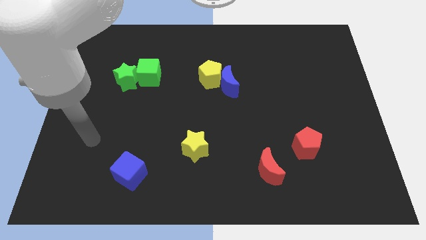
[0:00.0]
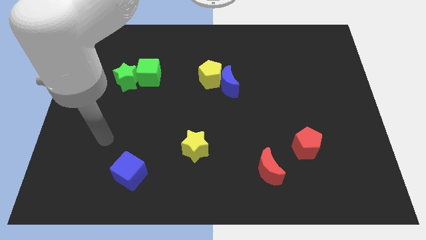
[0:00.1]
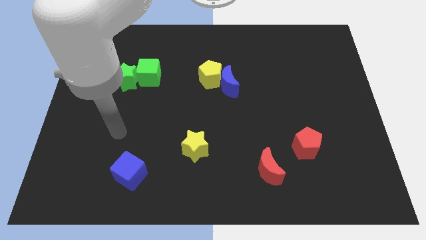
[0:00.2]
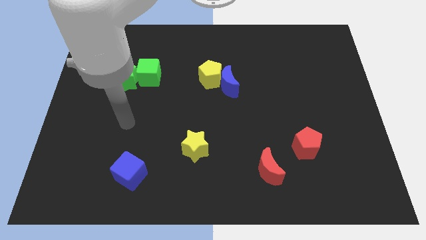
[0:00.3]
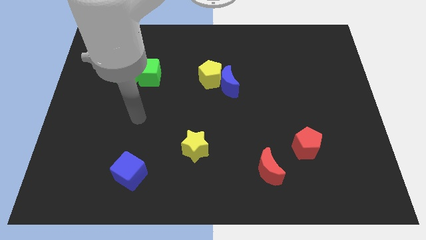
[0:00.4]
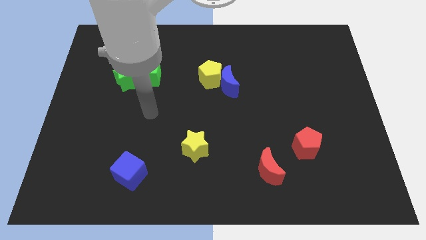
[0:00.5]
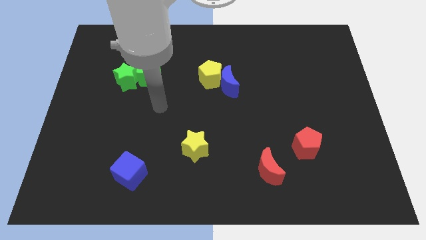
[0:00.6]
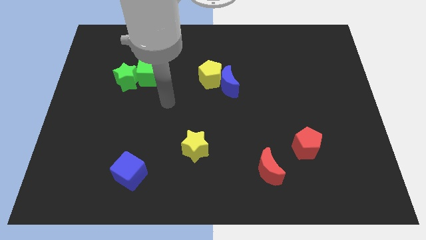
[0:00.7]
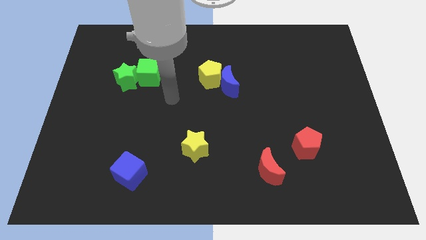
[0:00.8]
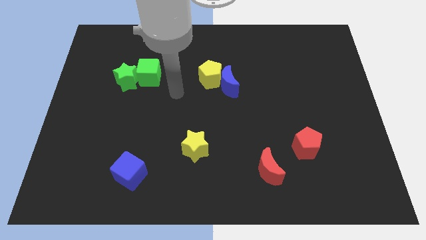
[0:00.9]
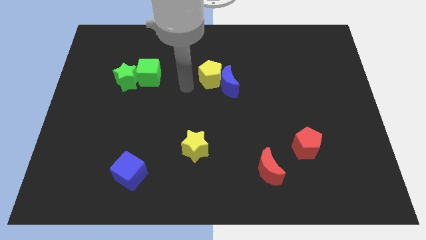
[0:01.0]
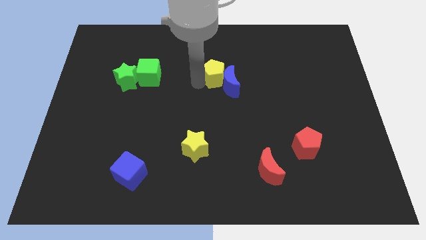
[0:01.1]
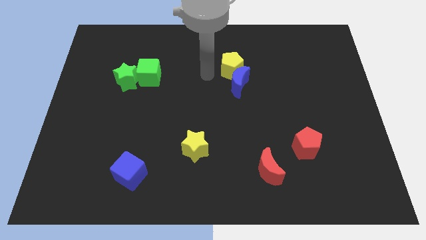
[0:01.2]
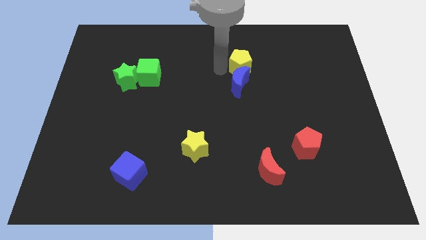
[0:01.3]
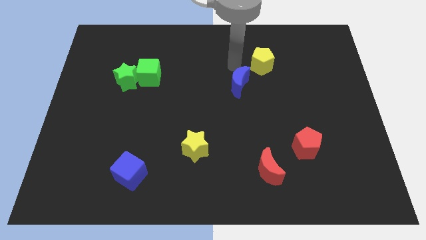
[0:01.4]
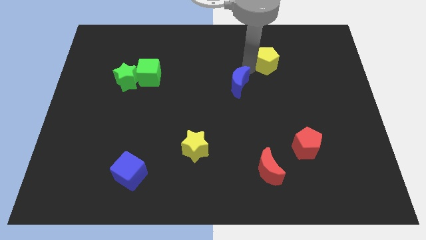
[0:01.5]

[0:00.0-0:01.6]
separate the blue moon from the yellow pentagon

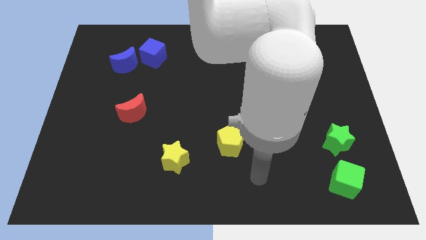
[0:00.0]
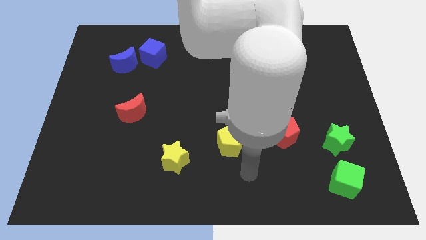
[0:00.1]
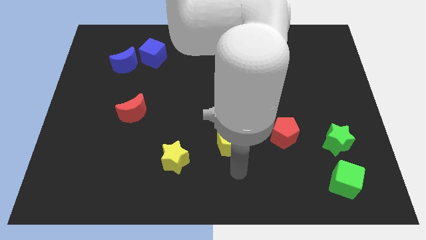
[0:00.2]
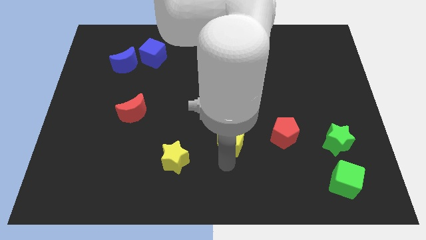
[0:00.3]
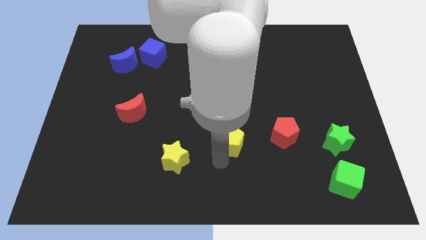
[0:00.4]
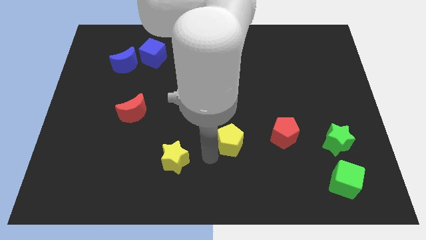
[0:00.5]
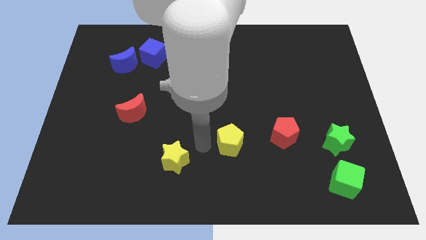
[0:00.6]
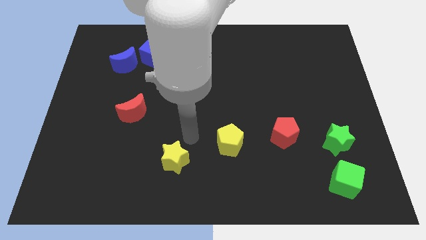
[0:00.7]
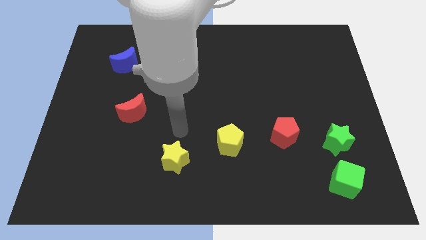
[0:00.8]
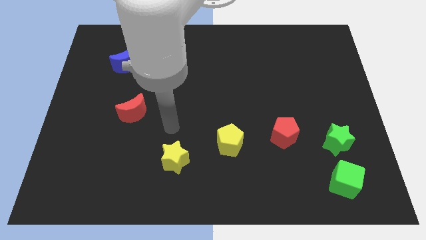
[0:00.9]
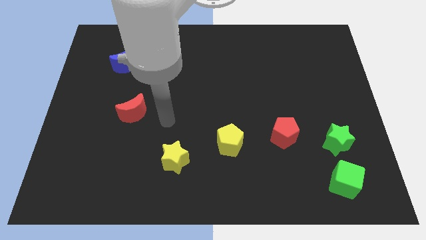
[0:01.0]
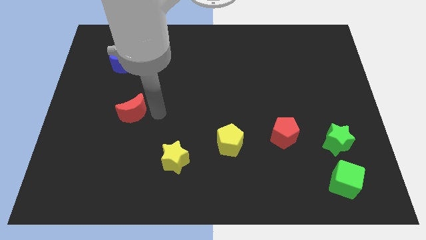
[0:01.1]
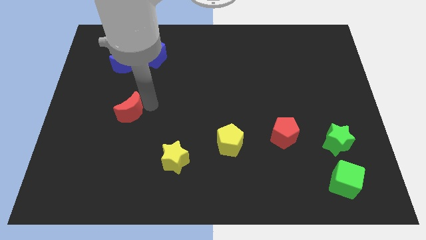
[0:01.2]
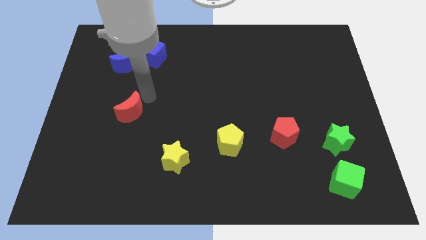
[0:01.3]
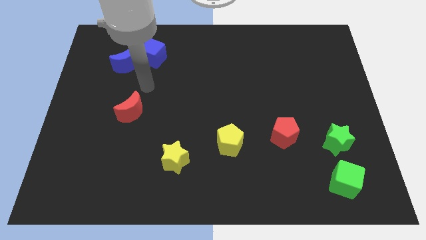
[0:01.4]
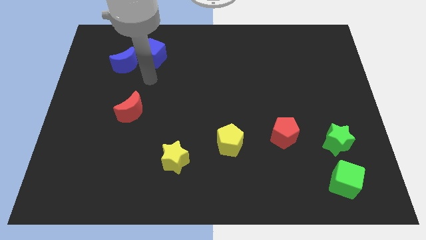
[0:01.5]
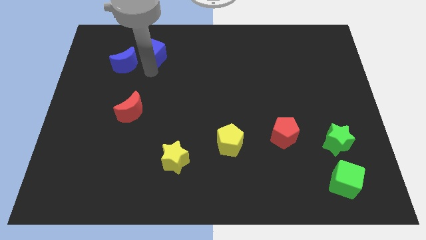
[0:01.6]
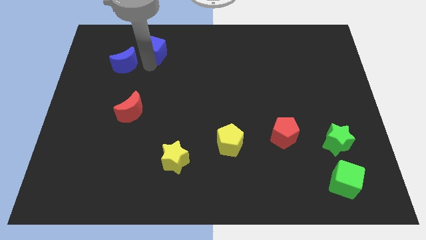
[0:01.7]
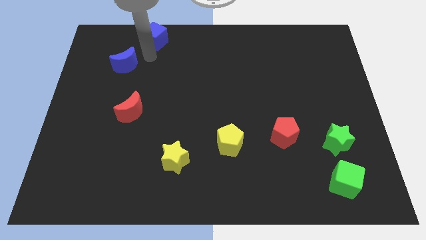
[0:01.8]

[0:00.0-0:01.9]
separate the blue moon from the blue cube

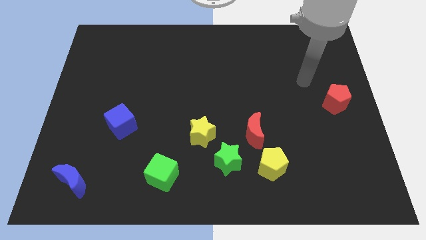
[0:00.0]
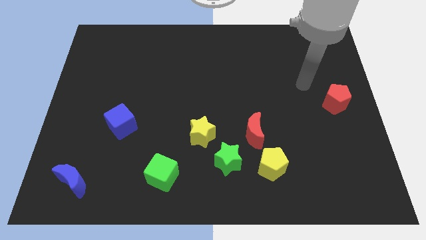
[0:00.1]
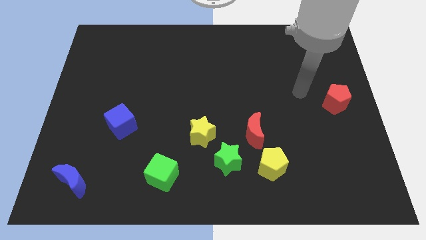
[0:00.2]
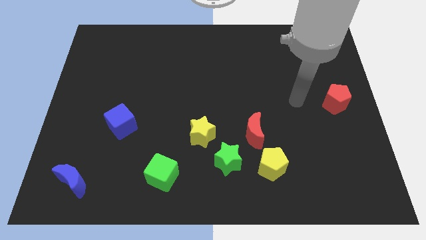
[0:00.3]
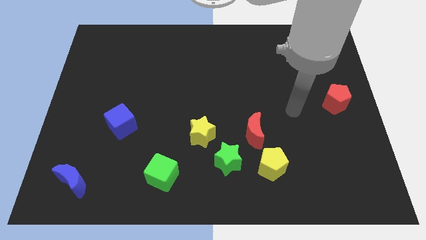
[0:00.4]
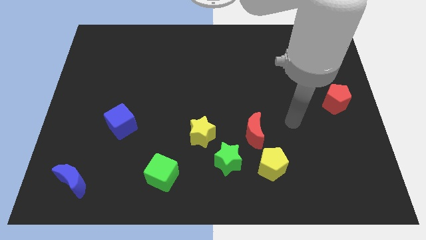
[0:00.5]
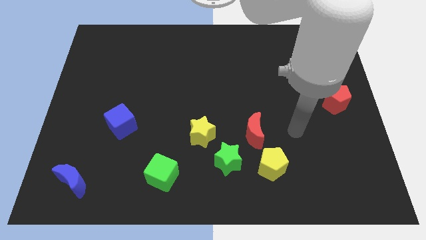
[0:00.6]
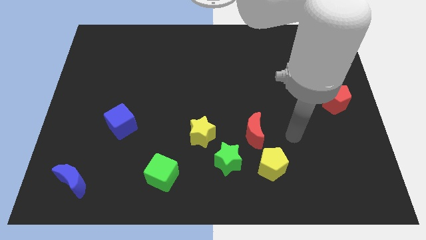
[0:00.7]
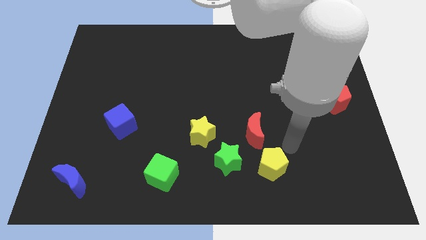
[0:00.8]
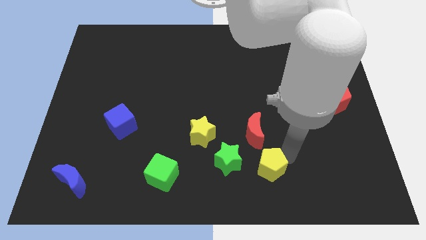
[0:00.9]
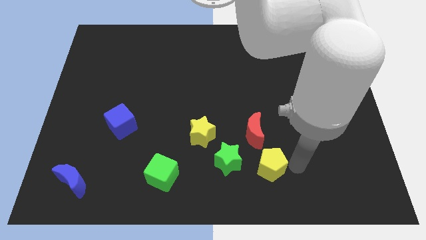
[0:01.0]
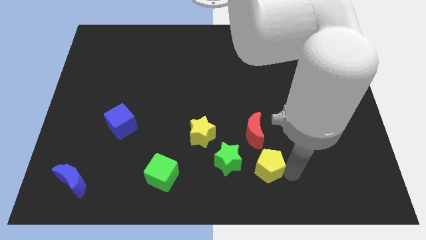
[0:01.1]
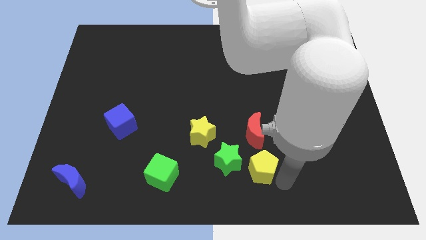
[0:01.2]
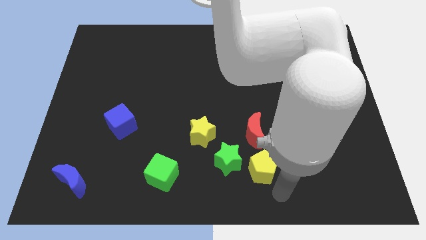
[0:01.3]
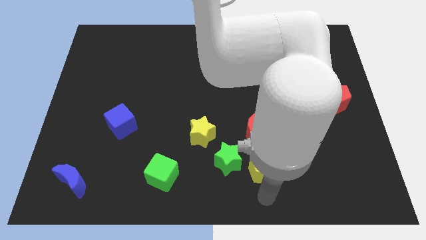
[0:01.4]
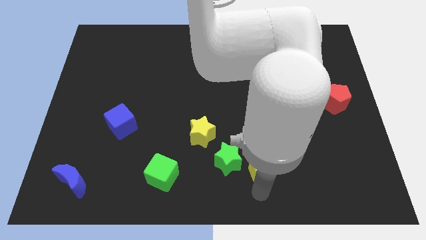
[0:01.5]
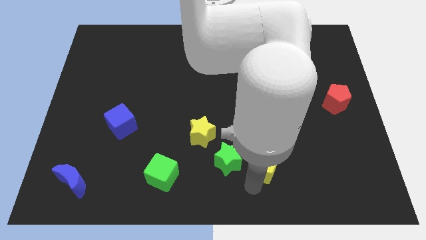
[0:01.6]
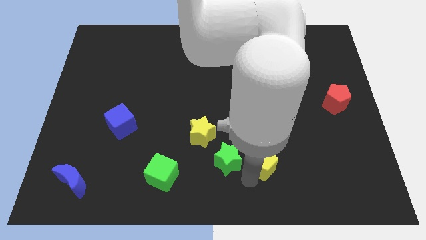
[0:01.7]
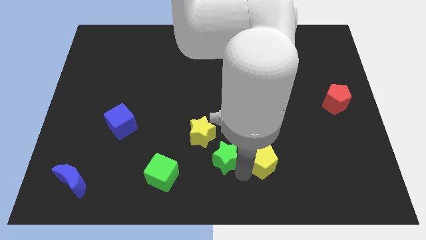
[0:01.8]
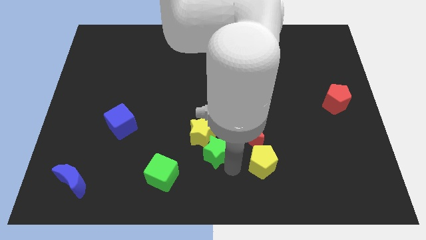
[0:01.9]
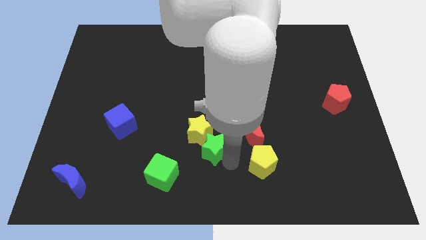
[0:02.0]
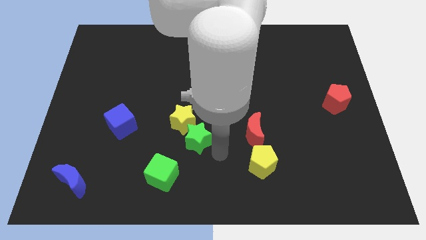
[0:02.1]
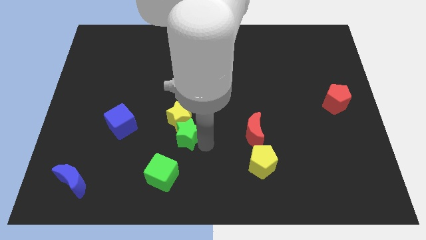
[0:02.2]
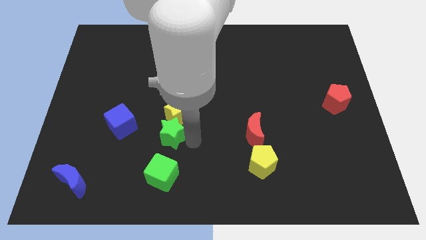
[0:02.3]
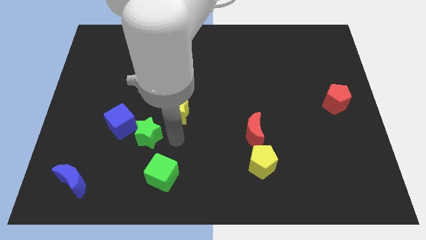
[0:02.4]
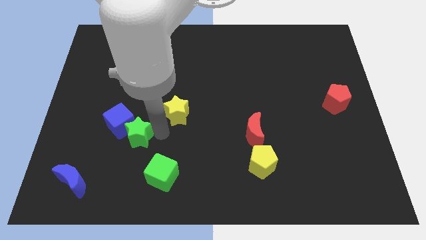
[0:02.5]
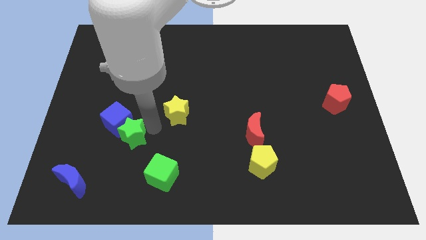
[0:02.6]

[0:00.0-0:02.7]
separate the yellow star from the green star

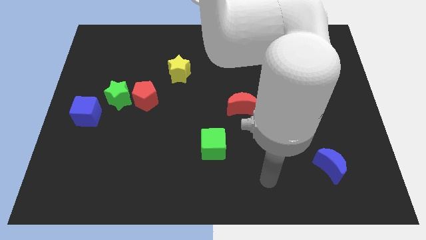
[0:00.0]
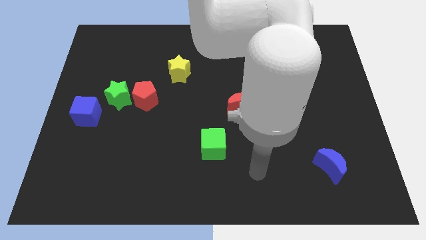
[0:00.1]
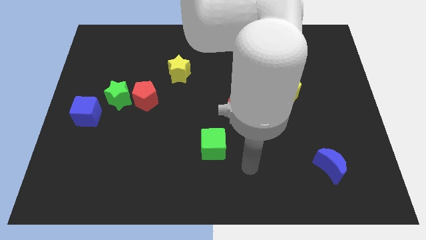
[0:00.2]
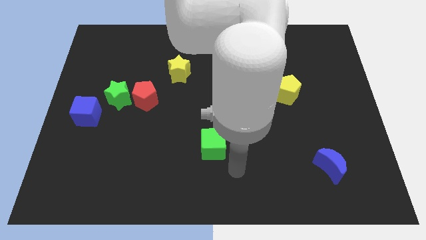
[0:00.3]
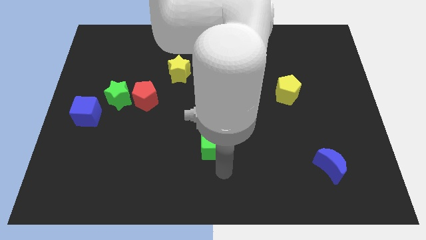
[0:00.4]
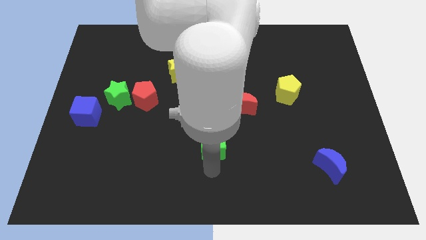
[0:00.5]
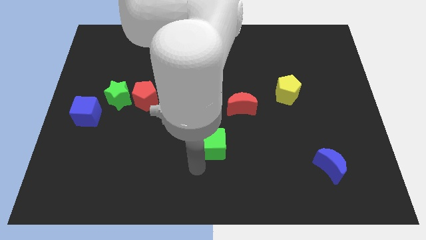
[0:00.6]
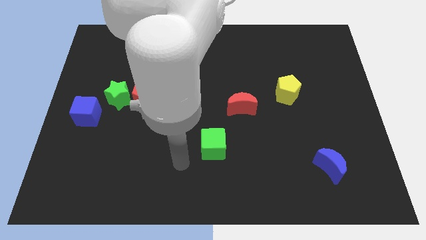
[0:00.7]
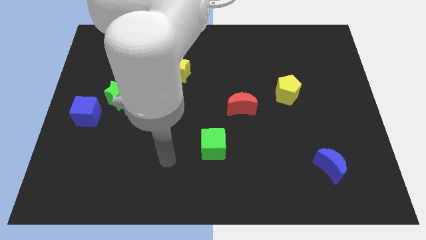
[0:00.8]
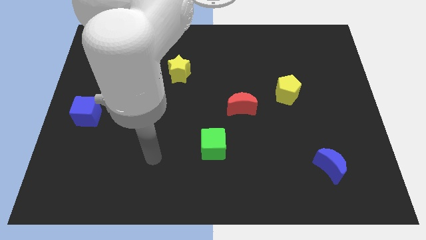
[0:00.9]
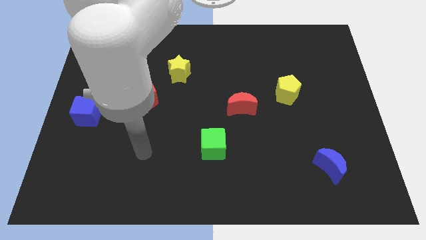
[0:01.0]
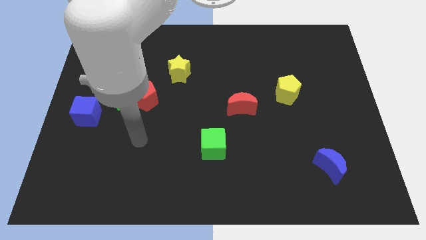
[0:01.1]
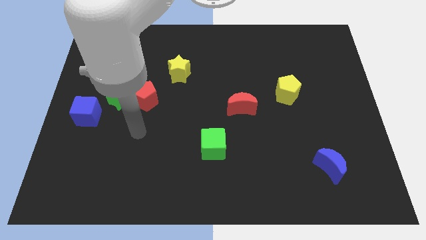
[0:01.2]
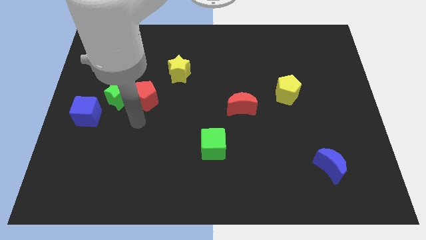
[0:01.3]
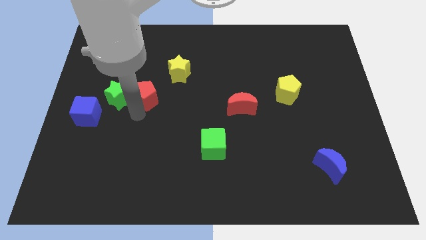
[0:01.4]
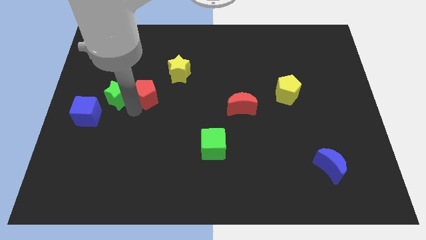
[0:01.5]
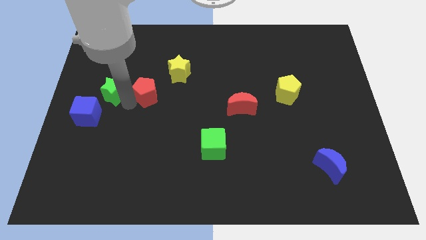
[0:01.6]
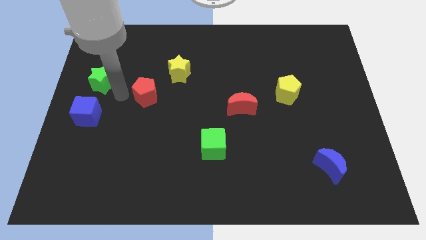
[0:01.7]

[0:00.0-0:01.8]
separate the red pentagon from the green star

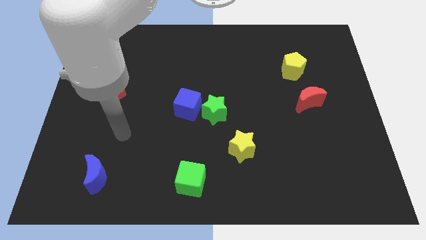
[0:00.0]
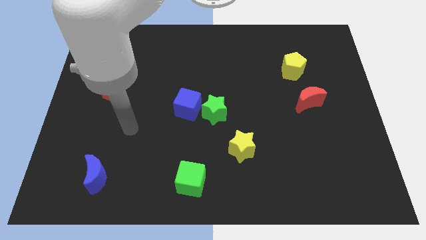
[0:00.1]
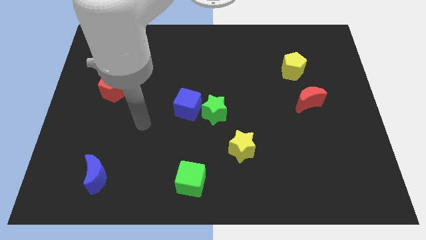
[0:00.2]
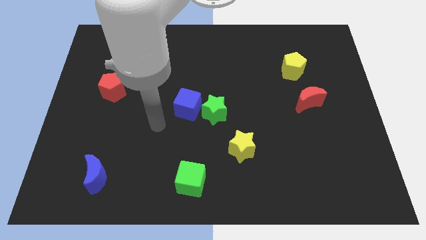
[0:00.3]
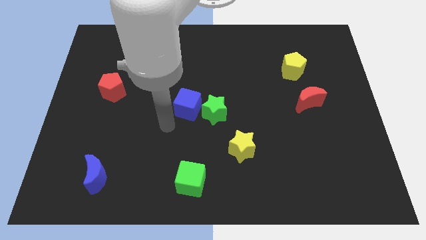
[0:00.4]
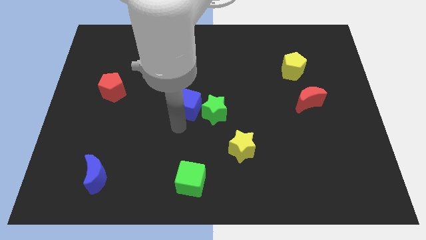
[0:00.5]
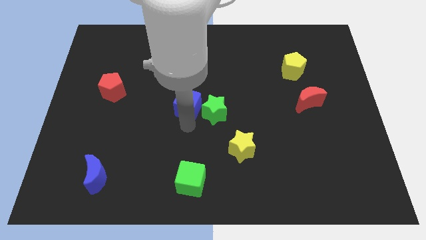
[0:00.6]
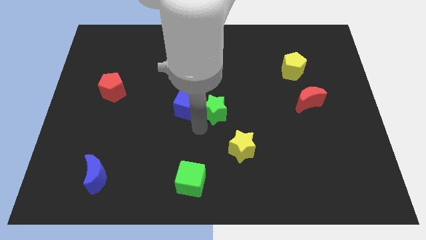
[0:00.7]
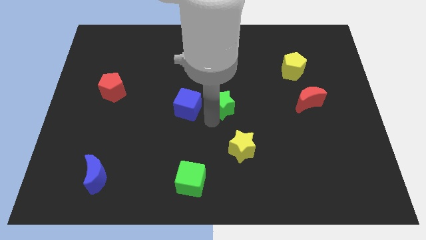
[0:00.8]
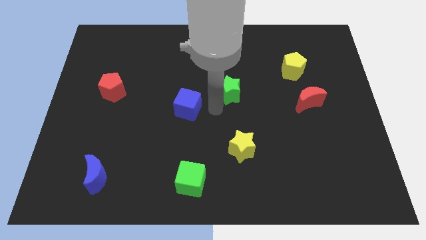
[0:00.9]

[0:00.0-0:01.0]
move the blue cube away from the green star

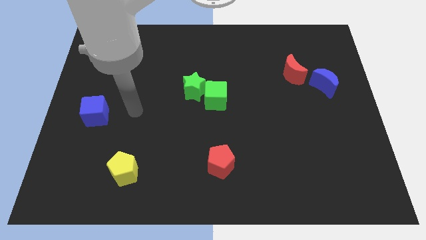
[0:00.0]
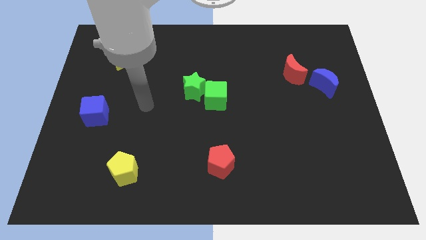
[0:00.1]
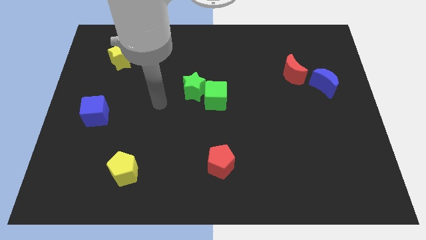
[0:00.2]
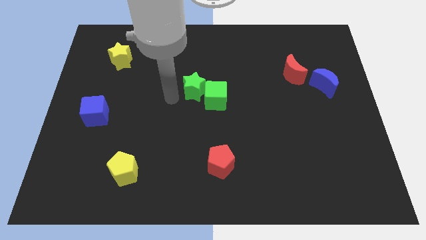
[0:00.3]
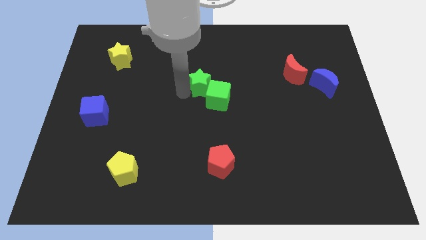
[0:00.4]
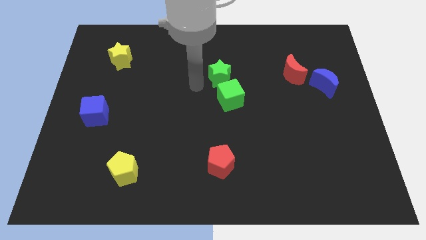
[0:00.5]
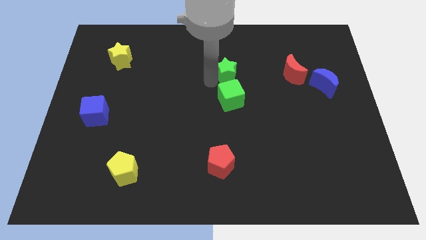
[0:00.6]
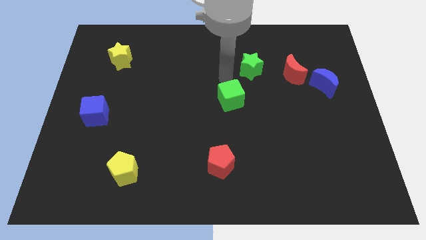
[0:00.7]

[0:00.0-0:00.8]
separate the green cube from the green star
